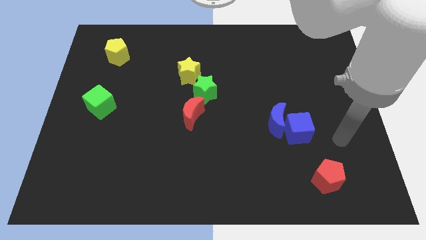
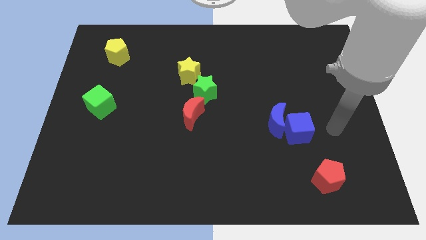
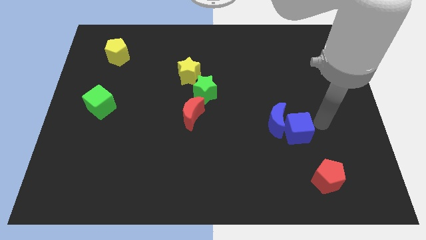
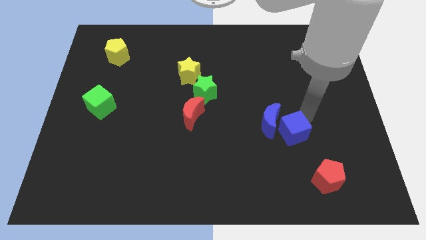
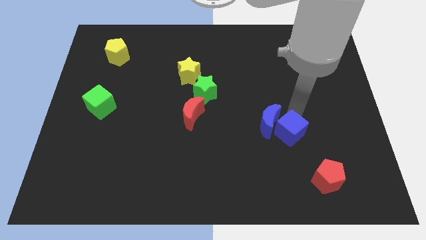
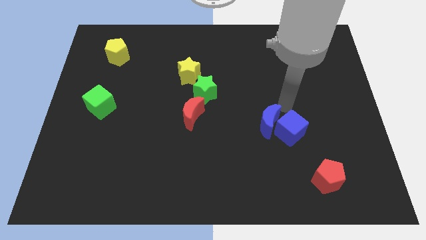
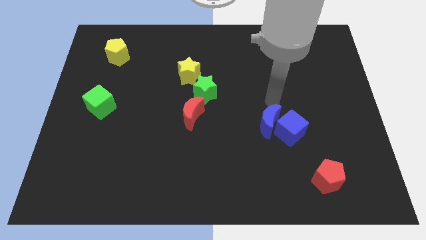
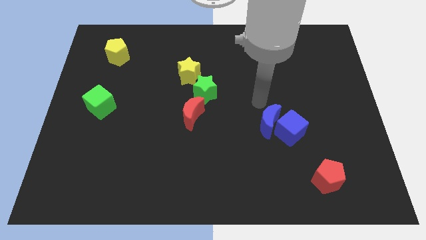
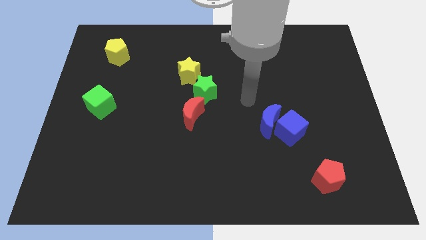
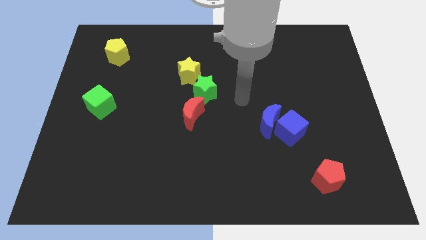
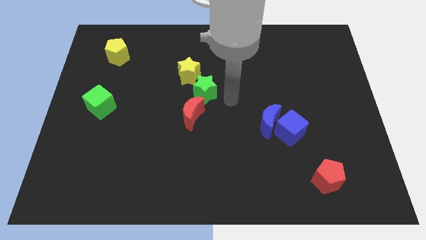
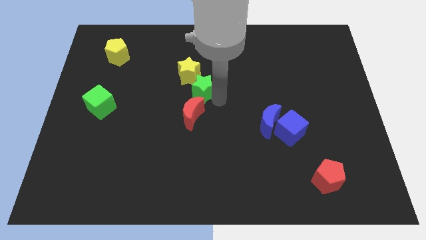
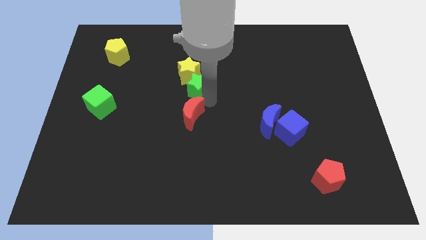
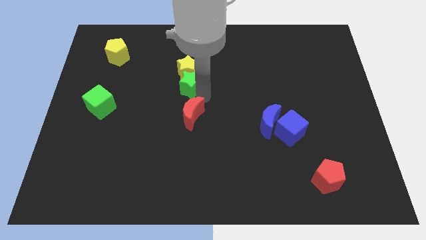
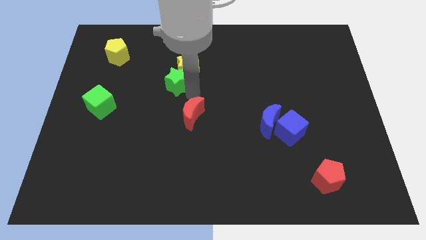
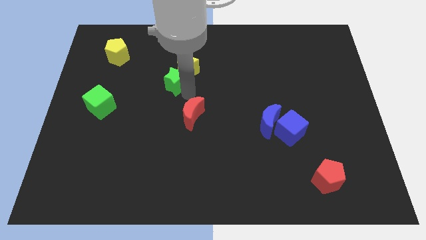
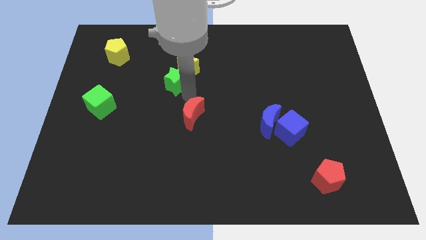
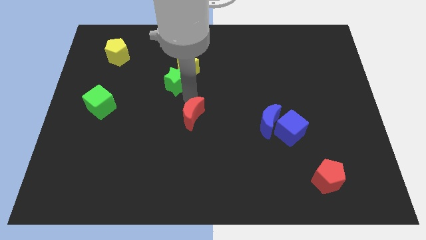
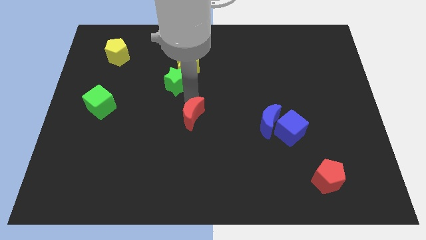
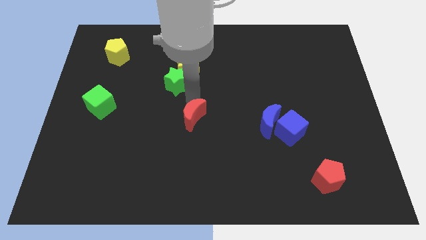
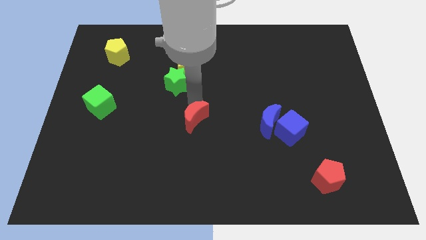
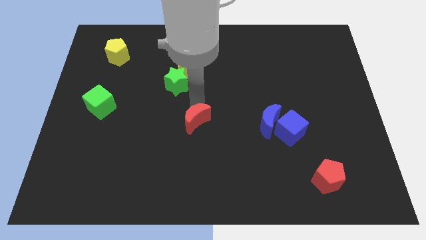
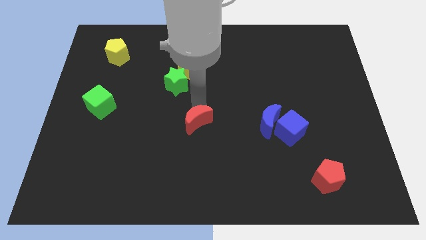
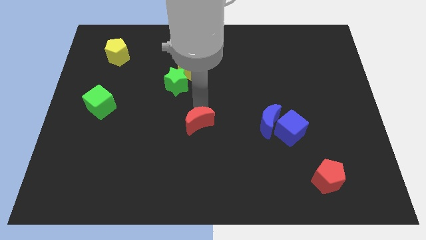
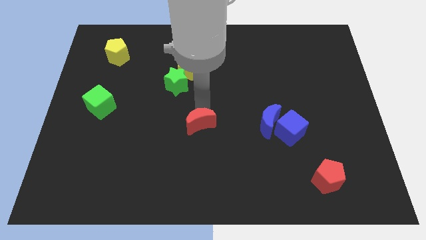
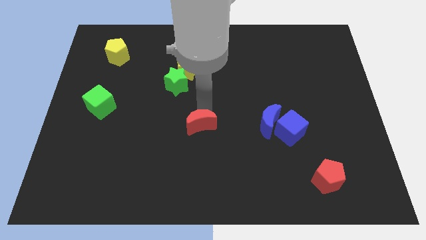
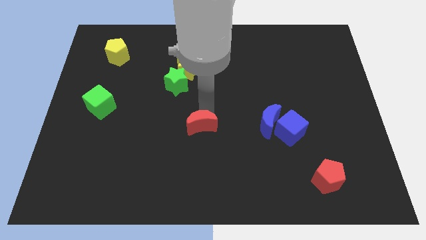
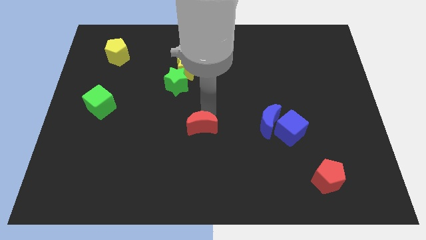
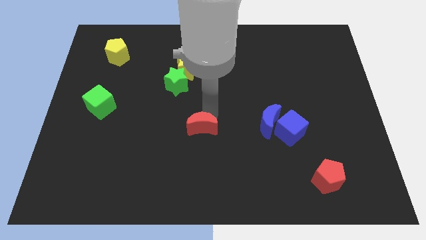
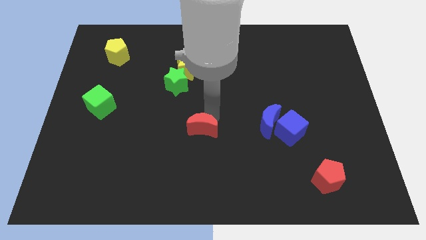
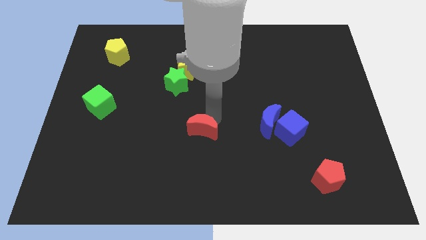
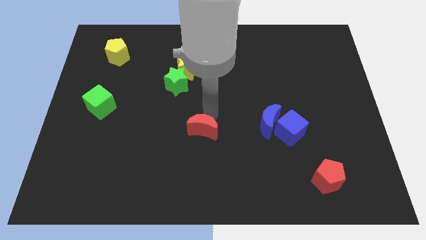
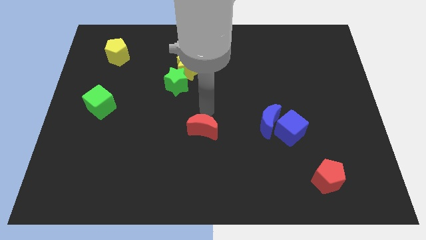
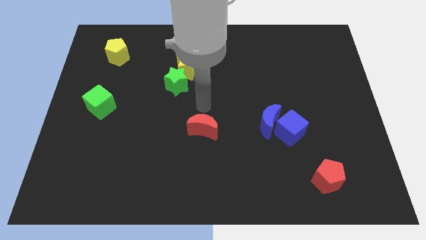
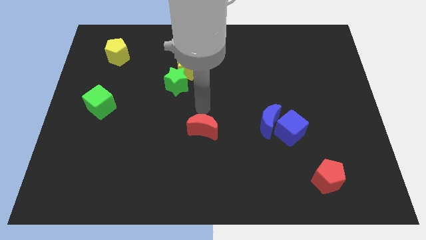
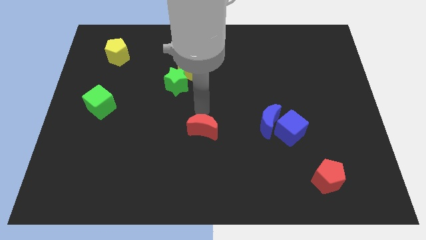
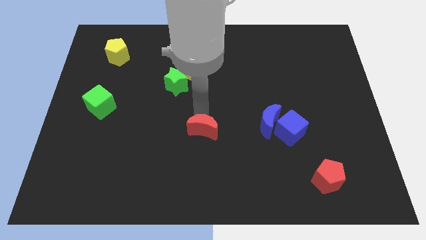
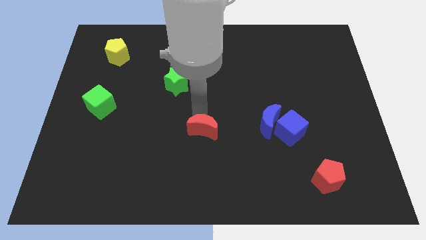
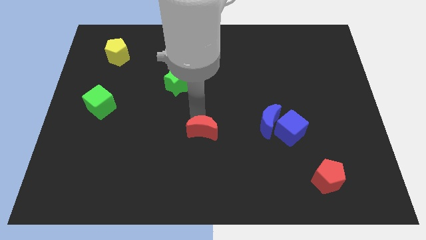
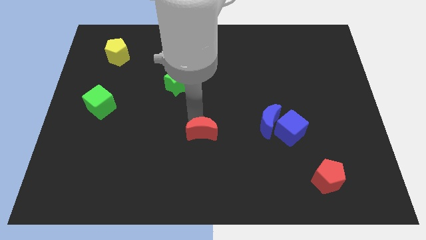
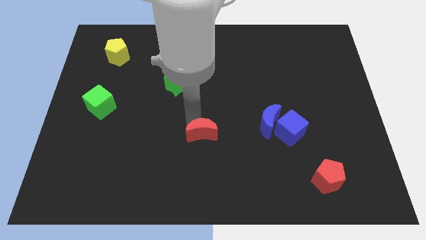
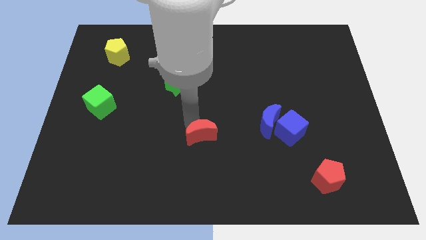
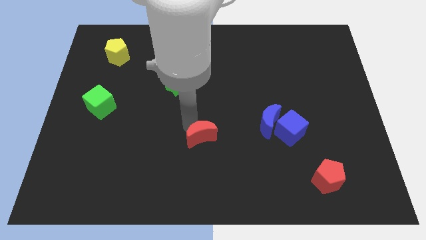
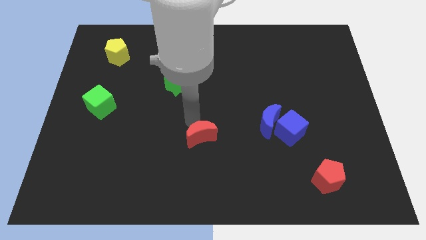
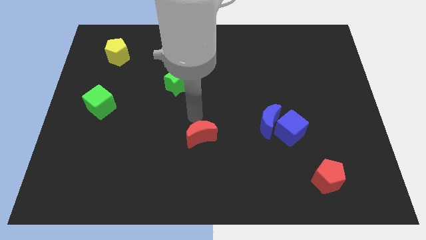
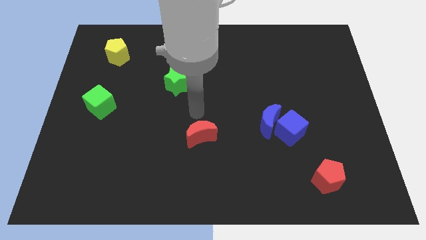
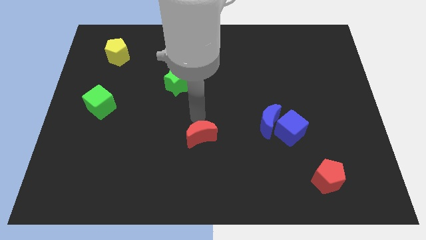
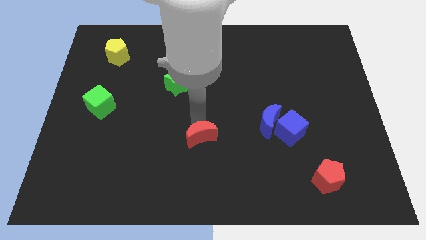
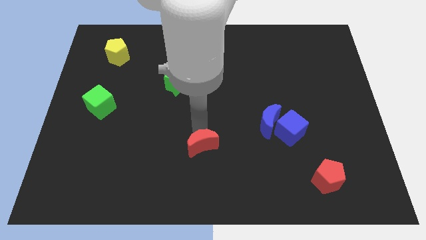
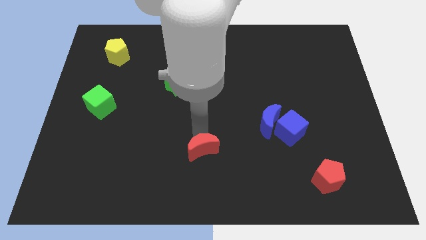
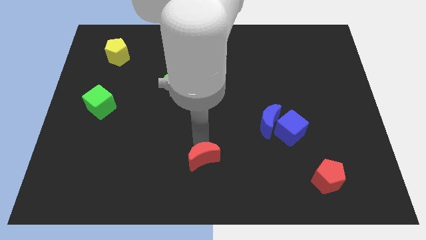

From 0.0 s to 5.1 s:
slide the red moon to the bottom

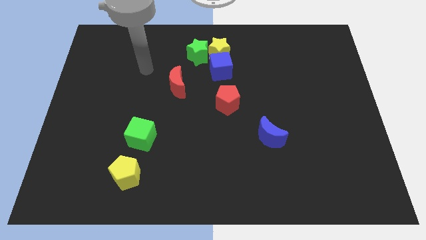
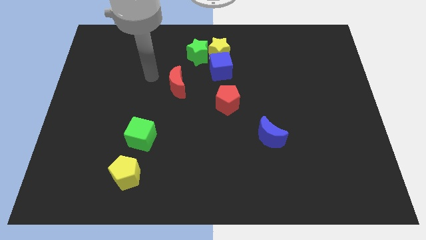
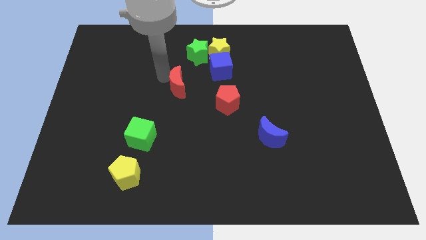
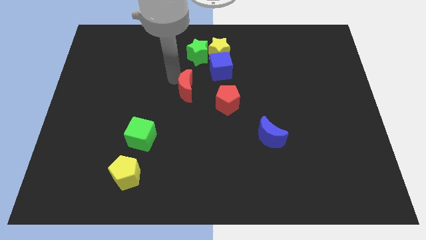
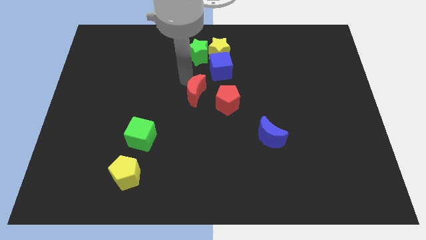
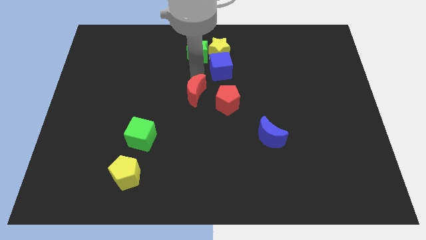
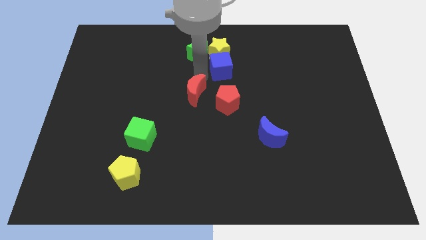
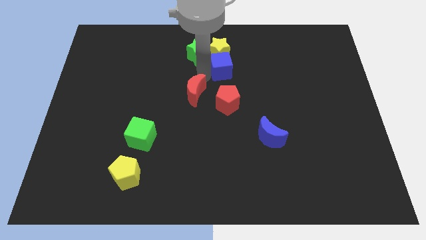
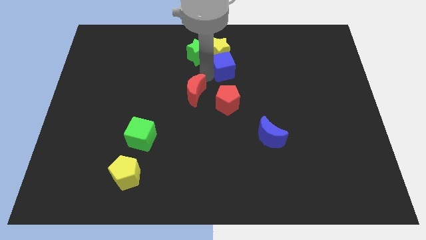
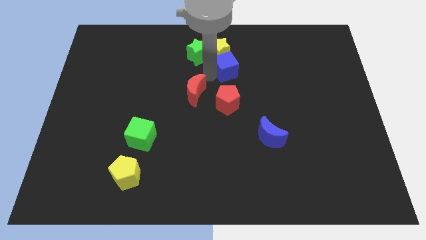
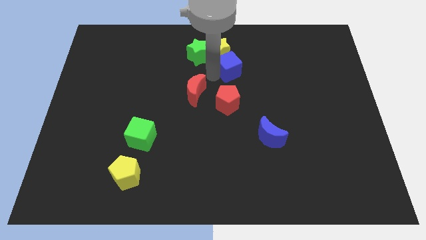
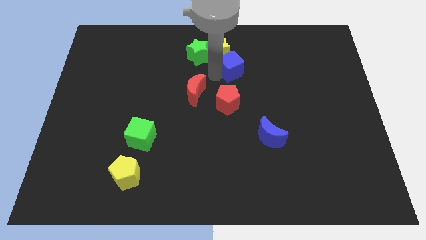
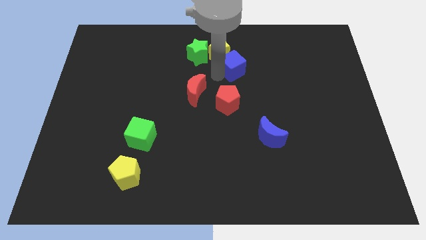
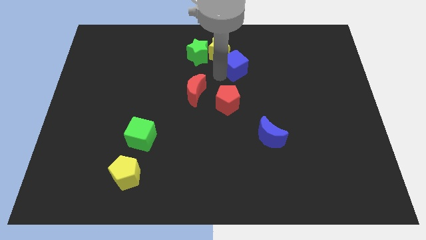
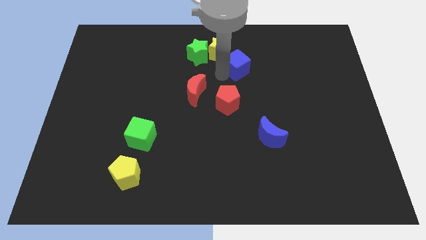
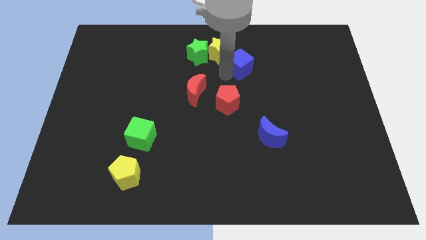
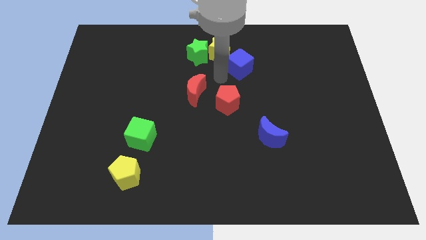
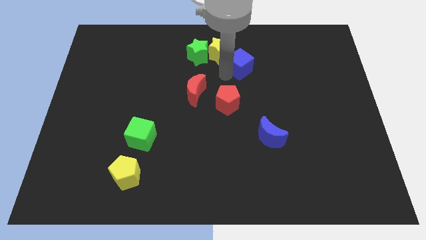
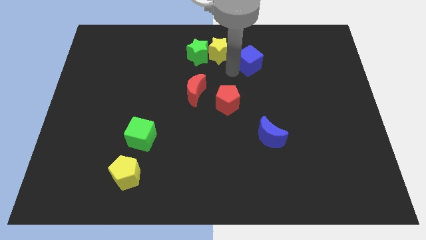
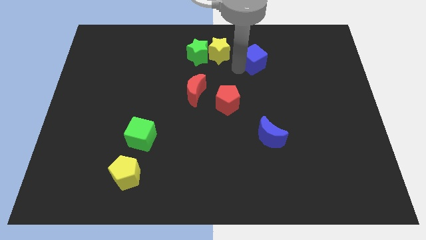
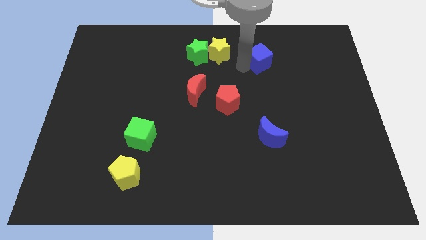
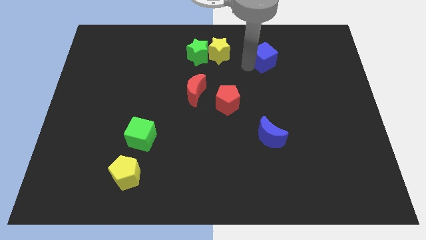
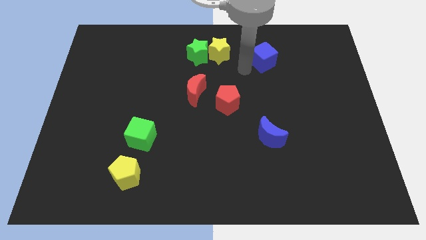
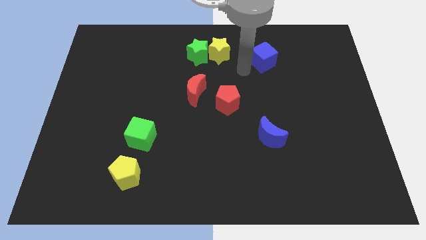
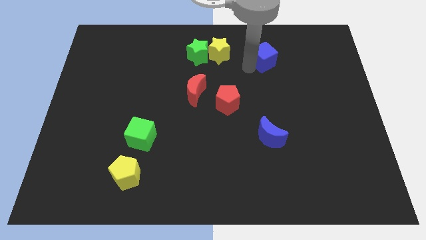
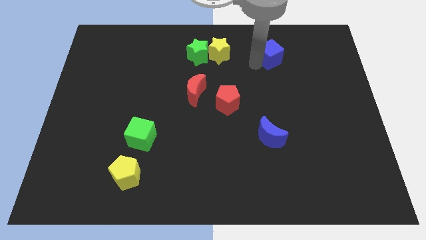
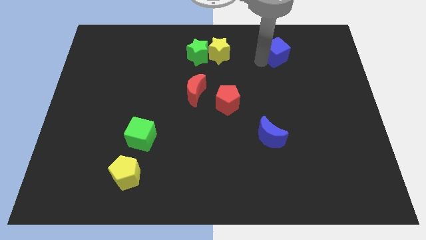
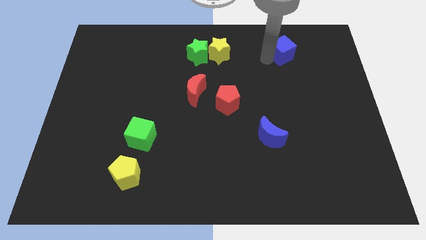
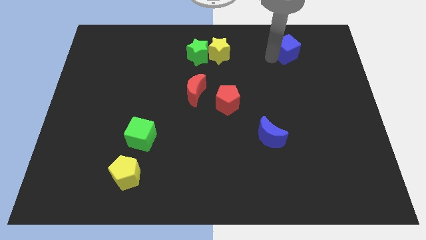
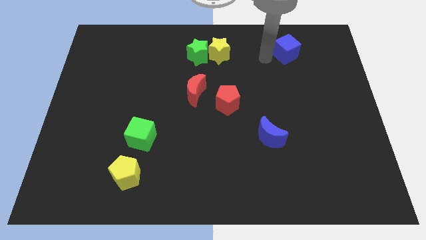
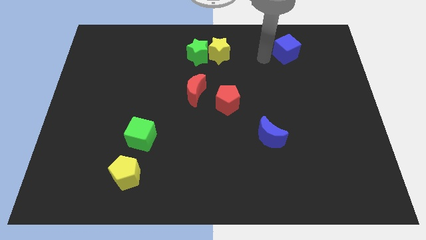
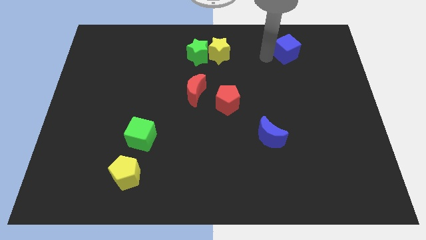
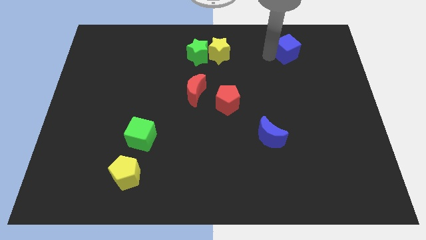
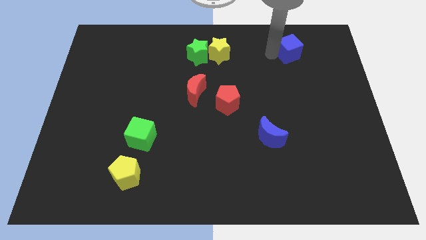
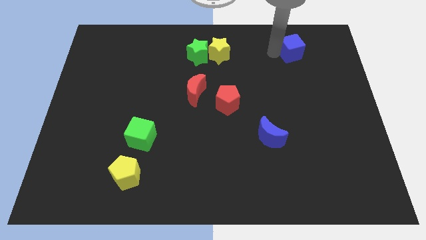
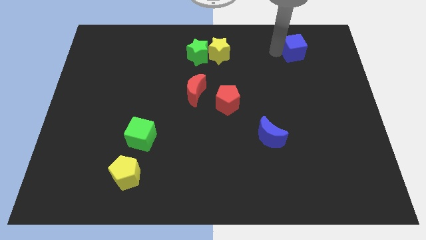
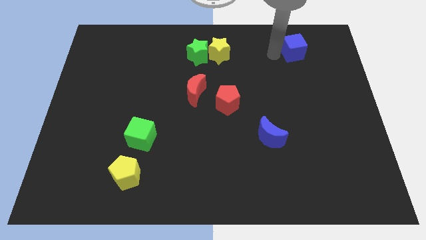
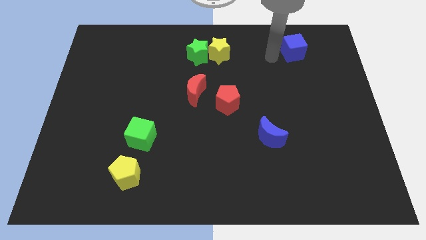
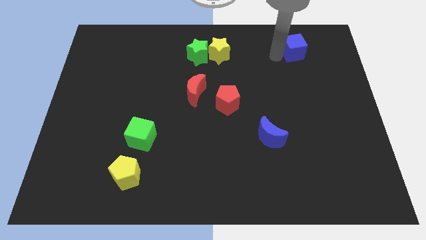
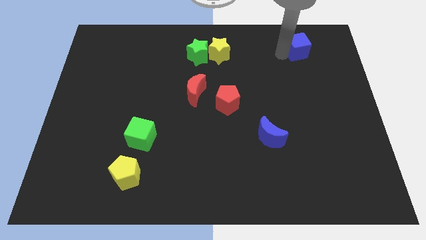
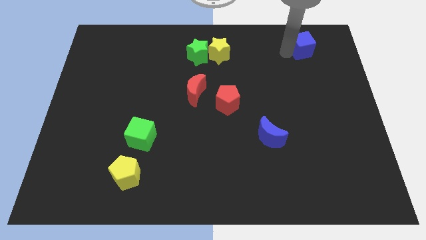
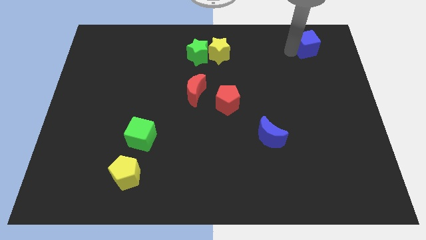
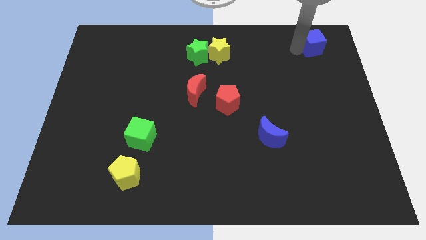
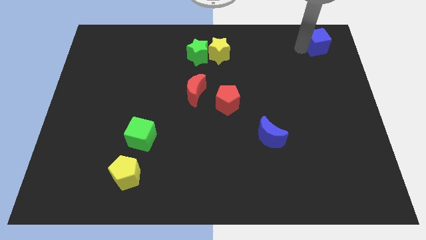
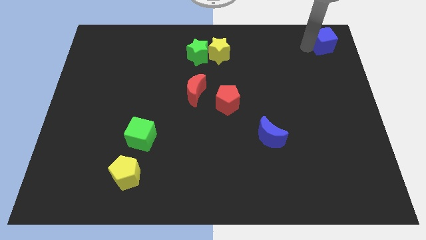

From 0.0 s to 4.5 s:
push the blue cube to the upper right corner
